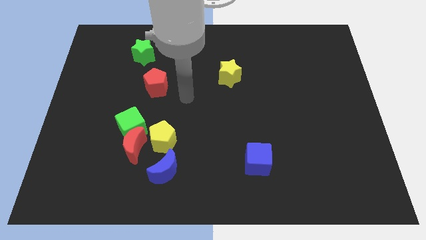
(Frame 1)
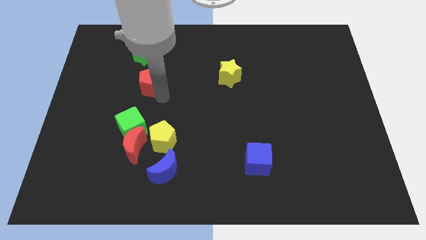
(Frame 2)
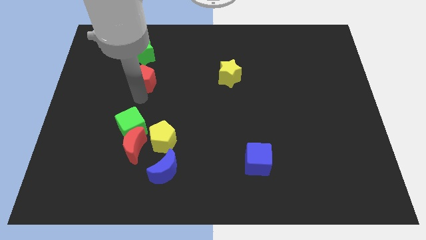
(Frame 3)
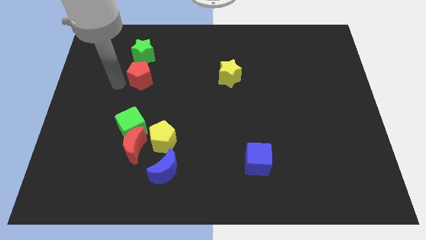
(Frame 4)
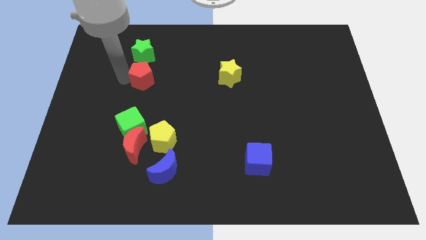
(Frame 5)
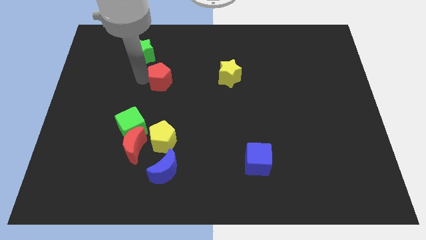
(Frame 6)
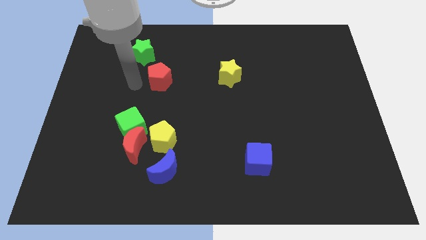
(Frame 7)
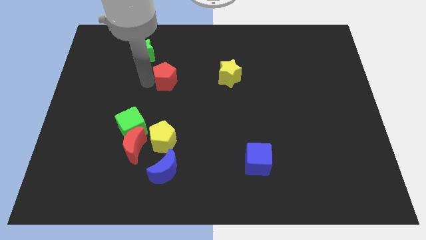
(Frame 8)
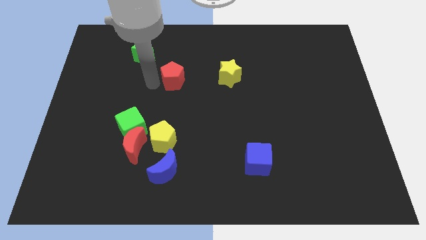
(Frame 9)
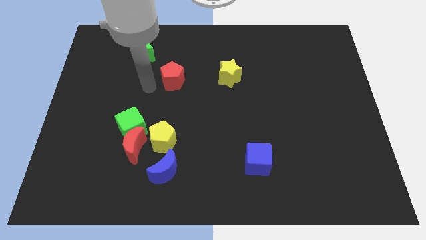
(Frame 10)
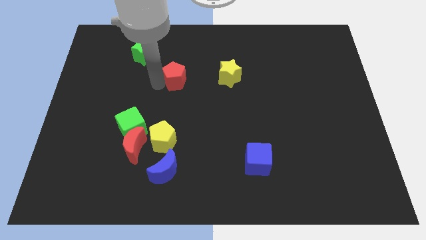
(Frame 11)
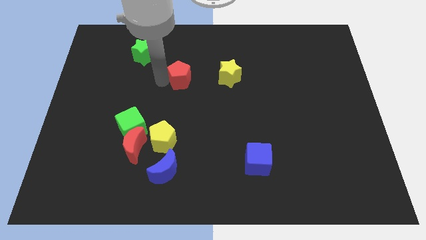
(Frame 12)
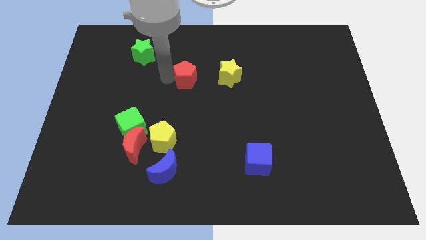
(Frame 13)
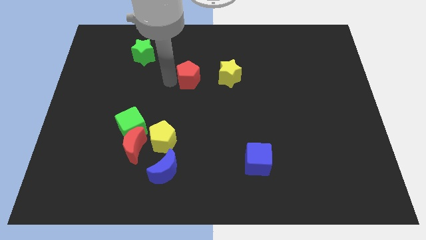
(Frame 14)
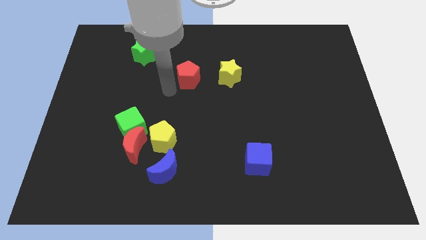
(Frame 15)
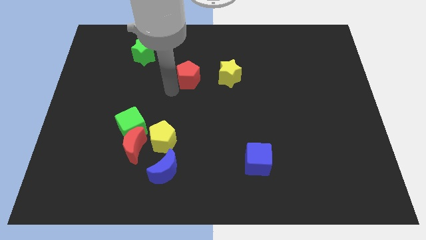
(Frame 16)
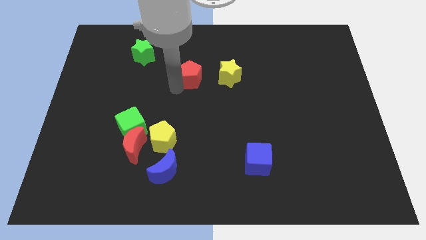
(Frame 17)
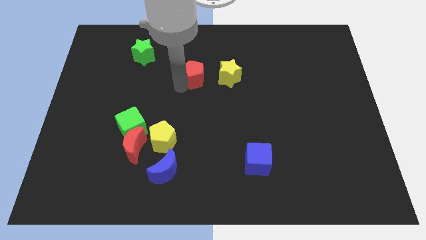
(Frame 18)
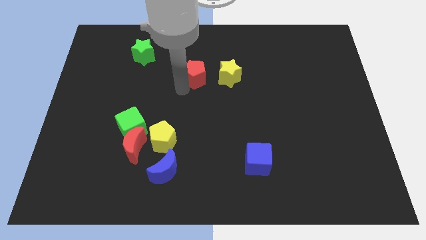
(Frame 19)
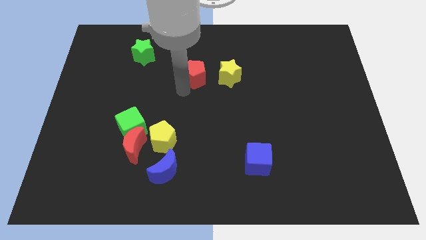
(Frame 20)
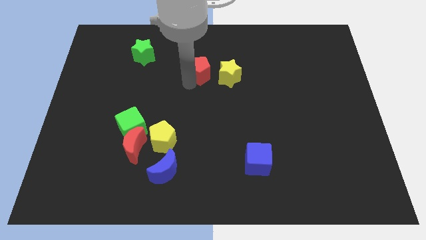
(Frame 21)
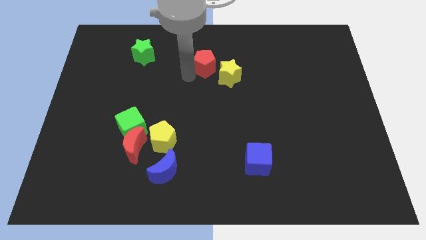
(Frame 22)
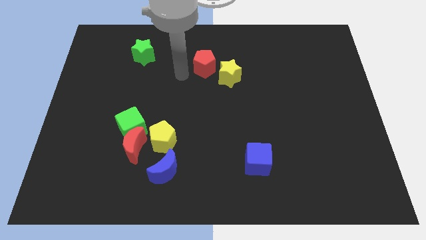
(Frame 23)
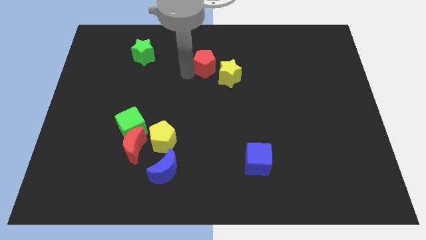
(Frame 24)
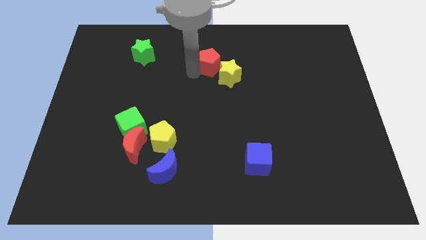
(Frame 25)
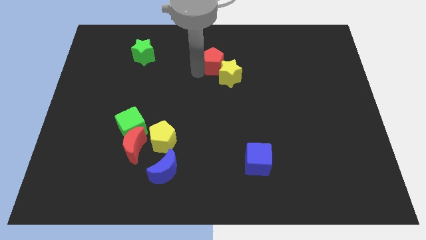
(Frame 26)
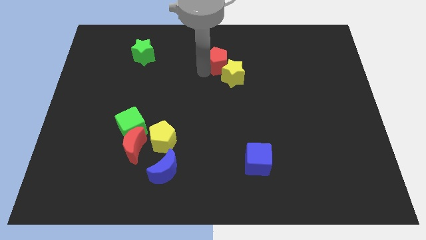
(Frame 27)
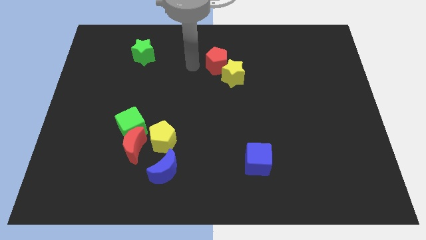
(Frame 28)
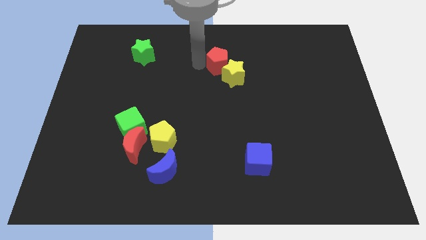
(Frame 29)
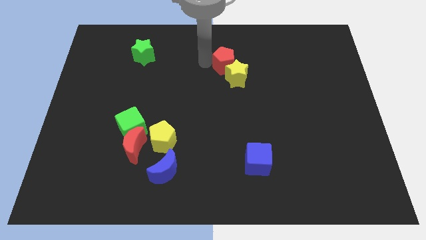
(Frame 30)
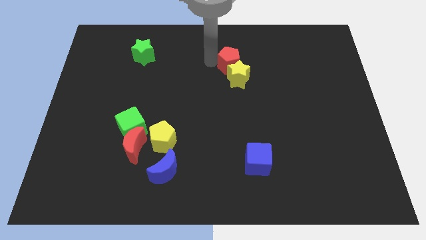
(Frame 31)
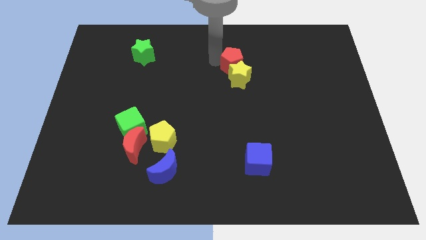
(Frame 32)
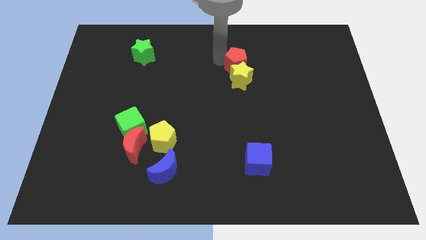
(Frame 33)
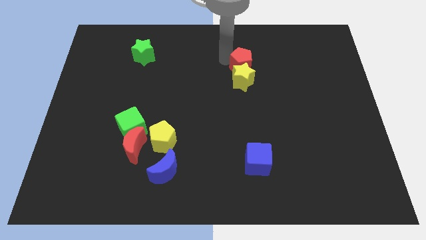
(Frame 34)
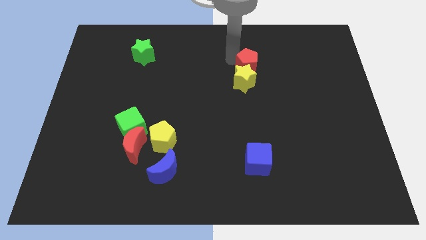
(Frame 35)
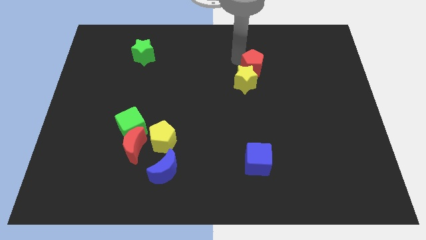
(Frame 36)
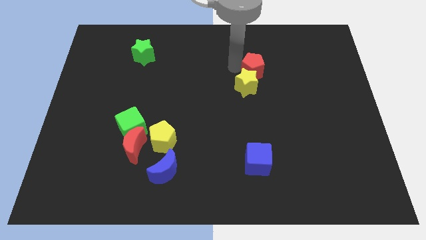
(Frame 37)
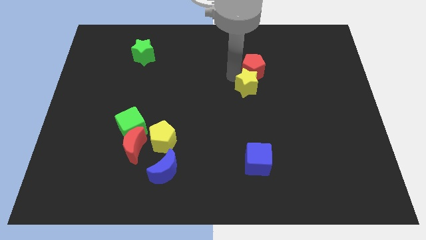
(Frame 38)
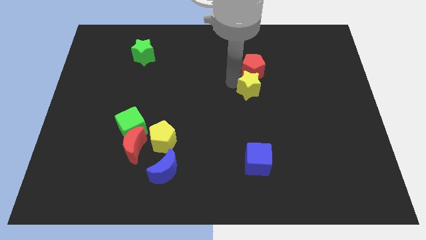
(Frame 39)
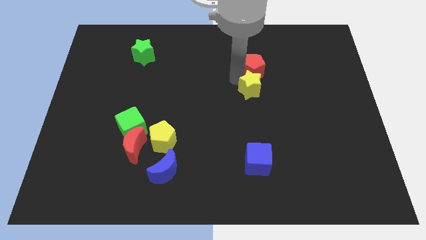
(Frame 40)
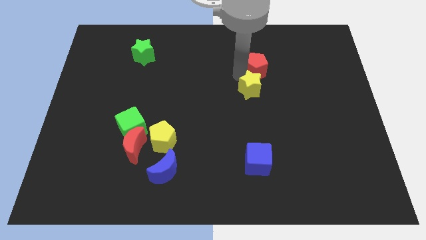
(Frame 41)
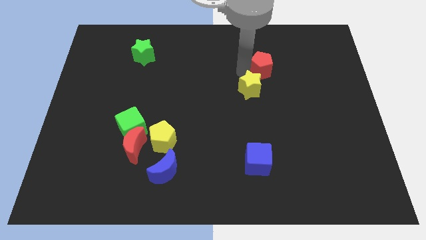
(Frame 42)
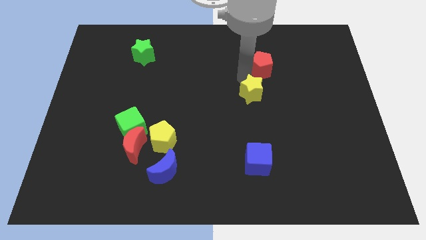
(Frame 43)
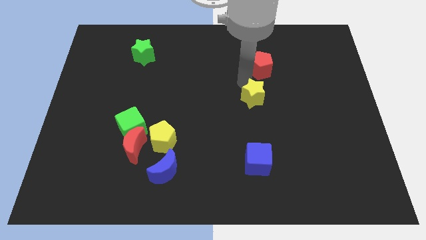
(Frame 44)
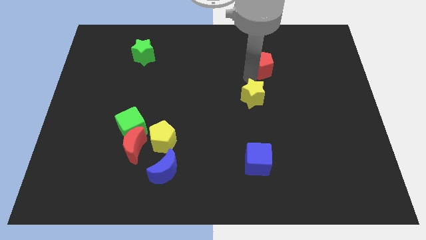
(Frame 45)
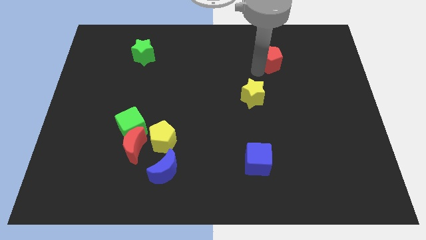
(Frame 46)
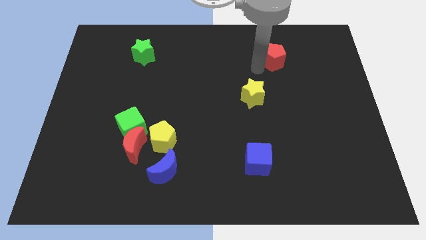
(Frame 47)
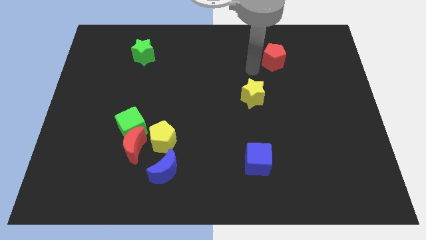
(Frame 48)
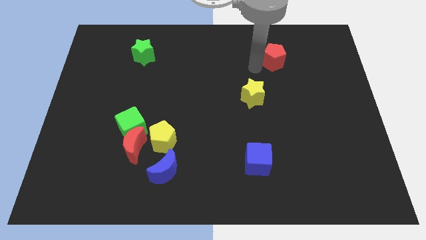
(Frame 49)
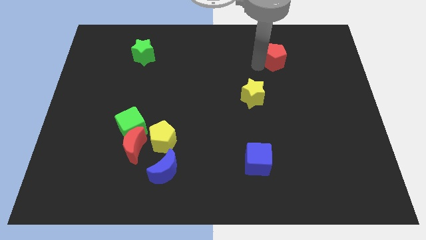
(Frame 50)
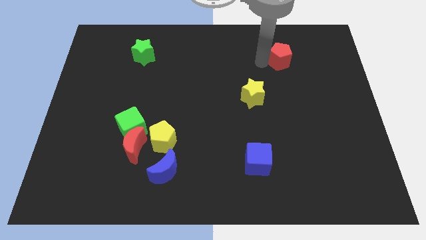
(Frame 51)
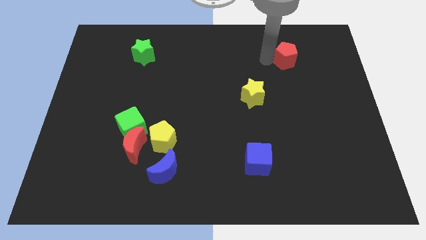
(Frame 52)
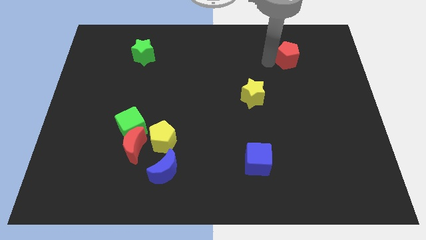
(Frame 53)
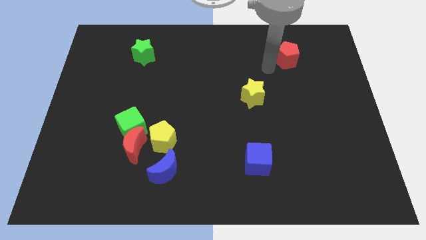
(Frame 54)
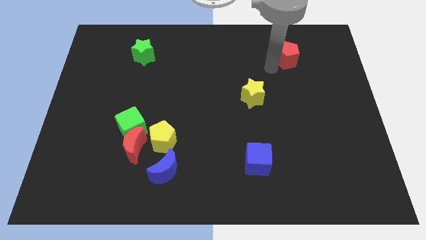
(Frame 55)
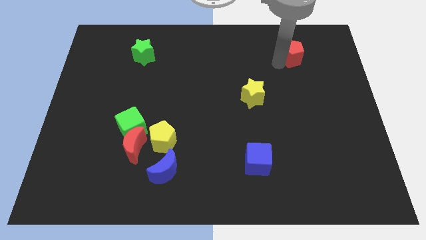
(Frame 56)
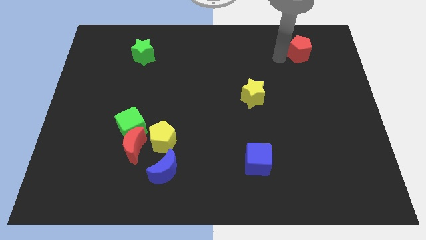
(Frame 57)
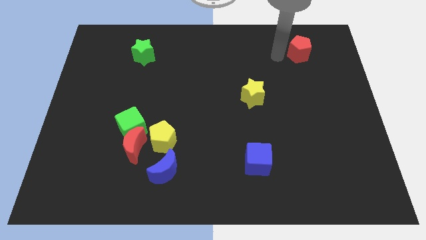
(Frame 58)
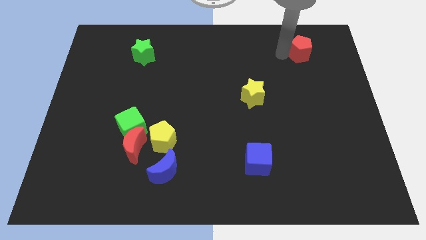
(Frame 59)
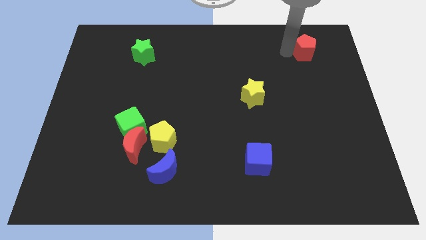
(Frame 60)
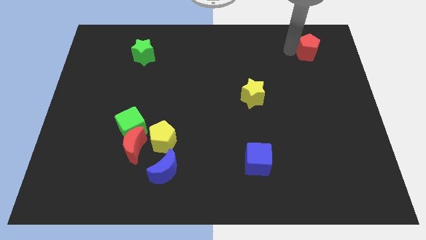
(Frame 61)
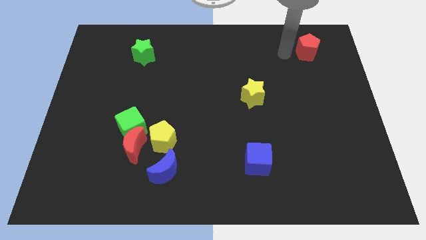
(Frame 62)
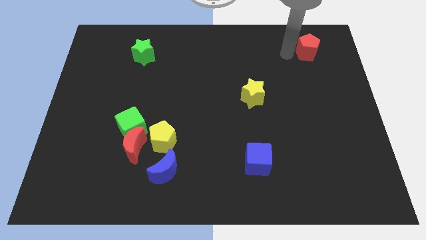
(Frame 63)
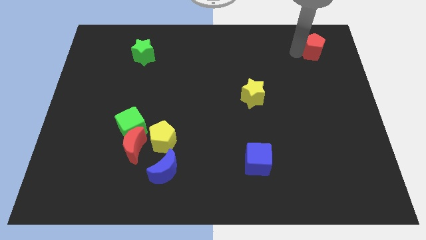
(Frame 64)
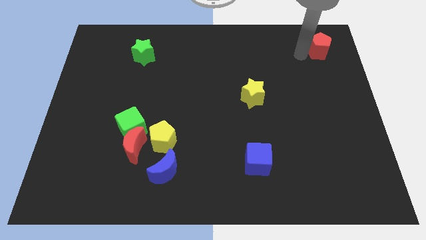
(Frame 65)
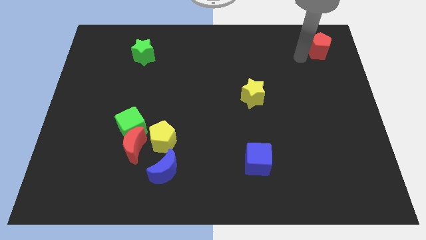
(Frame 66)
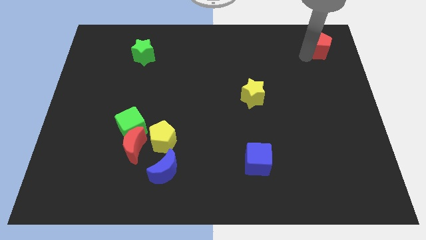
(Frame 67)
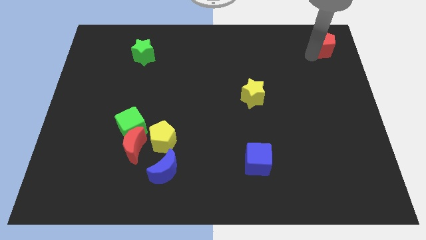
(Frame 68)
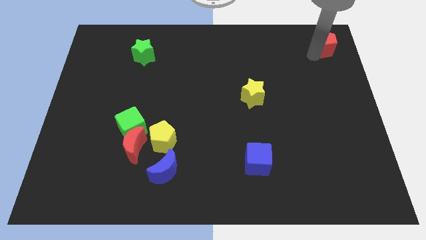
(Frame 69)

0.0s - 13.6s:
slide the red pentagon to the top right corner

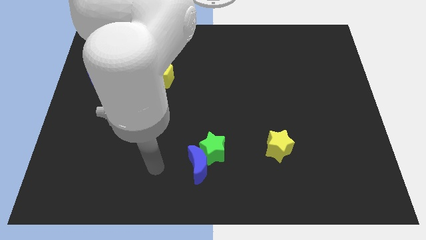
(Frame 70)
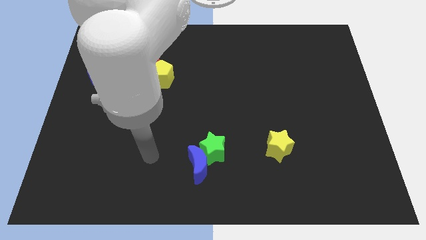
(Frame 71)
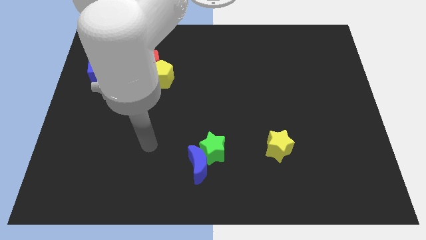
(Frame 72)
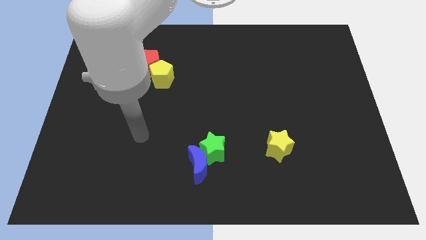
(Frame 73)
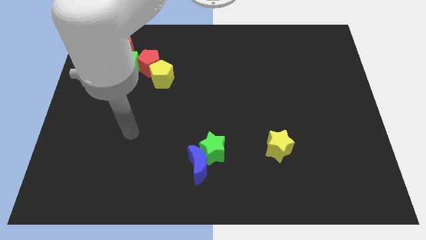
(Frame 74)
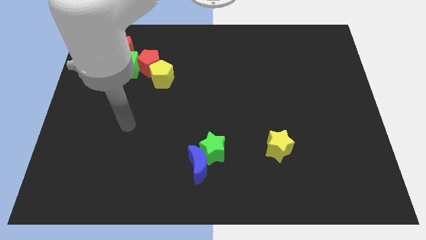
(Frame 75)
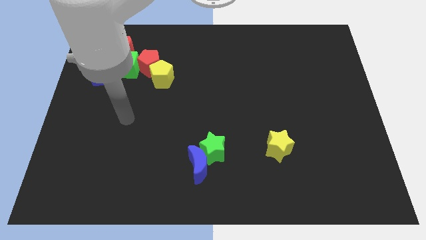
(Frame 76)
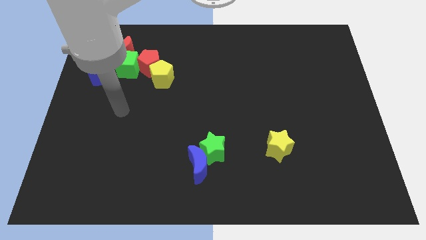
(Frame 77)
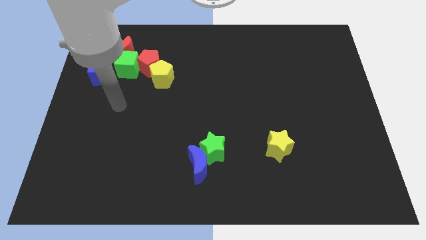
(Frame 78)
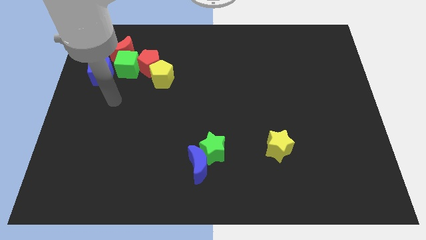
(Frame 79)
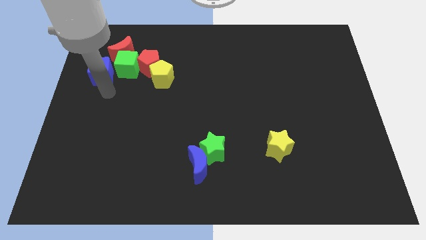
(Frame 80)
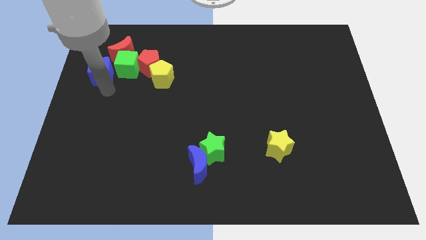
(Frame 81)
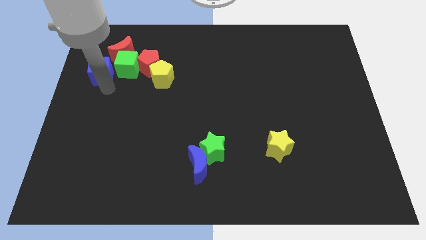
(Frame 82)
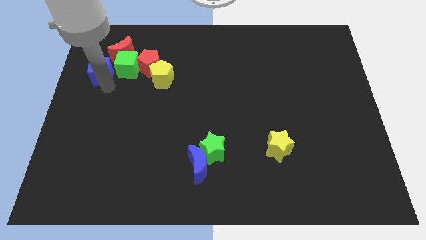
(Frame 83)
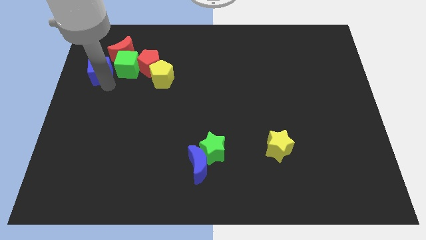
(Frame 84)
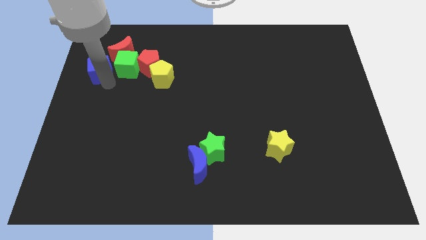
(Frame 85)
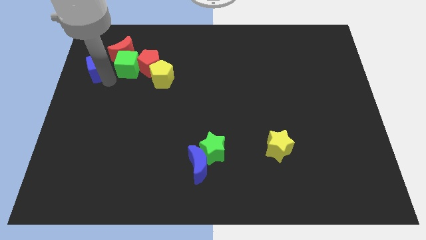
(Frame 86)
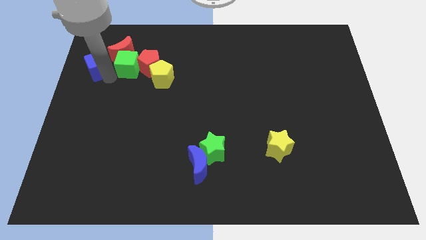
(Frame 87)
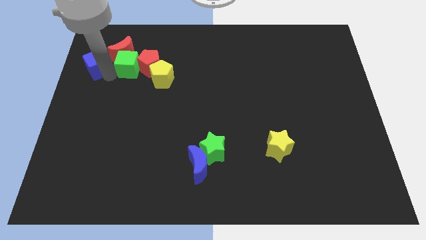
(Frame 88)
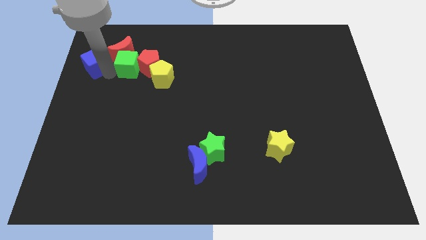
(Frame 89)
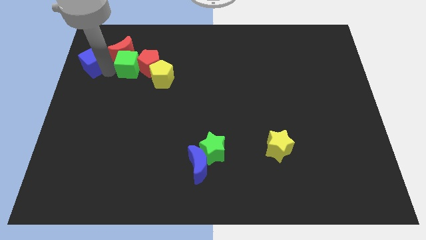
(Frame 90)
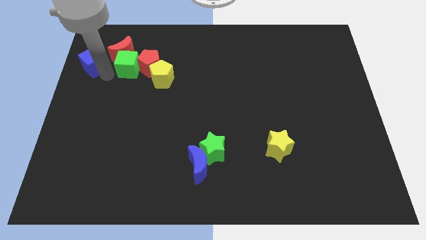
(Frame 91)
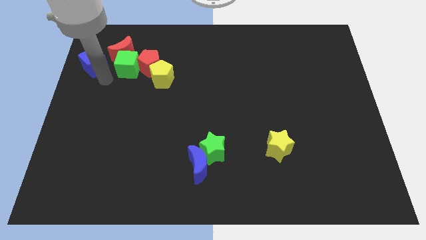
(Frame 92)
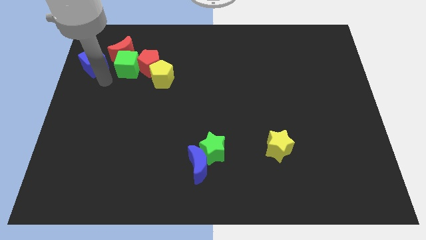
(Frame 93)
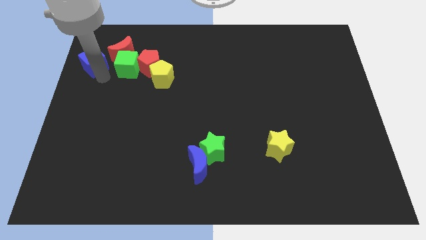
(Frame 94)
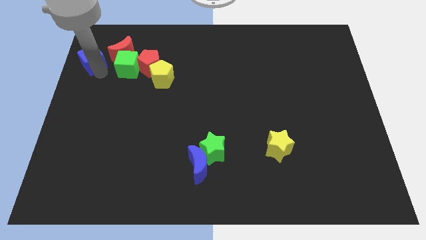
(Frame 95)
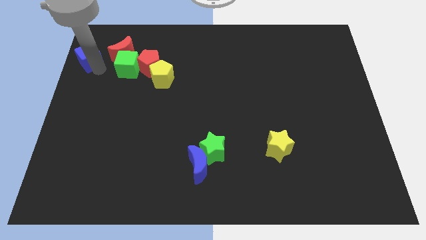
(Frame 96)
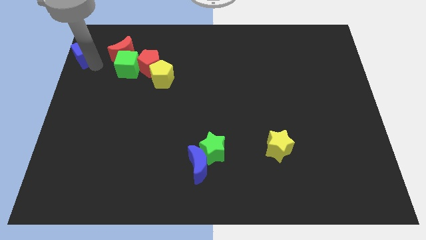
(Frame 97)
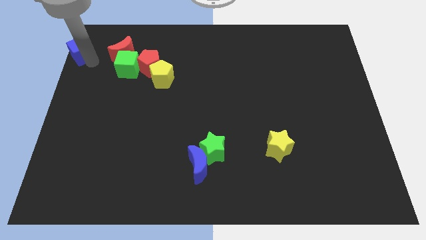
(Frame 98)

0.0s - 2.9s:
push the blue cube to the top left of the board
